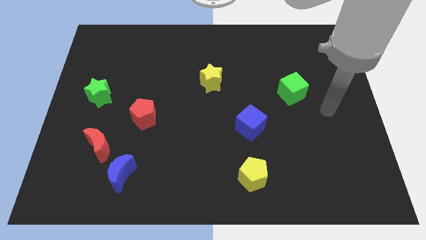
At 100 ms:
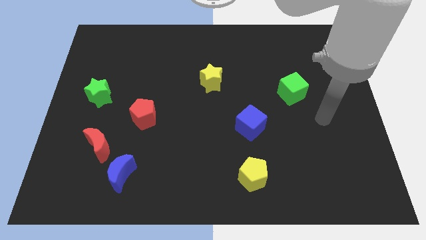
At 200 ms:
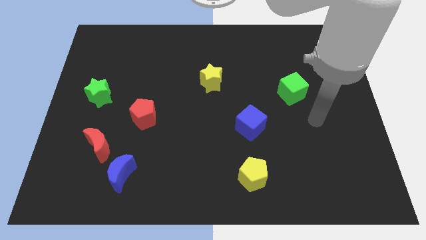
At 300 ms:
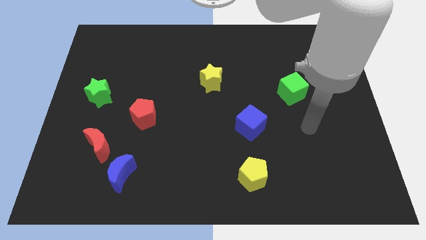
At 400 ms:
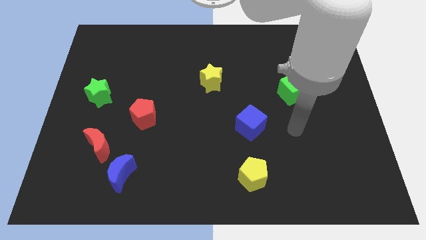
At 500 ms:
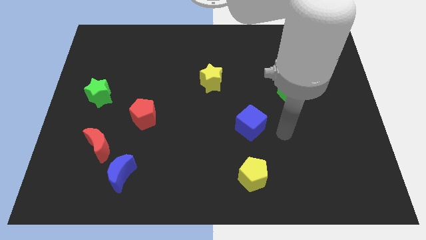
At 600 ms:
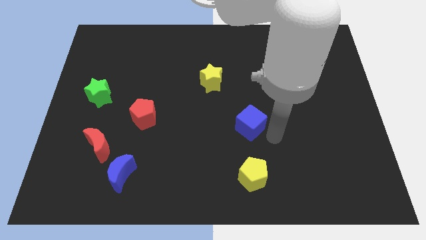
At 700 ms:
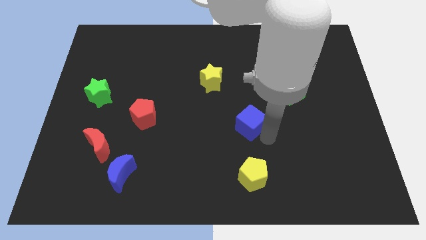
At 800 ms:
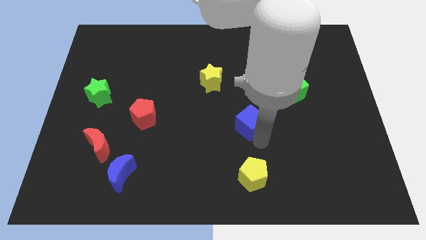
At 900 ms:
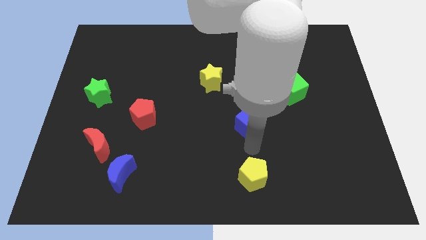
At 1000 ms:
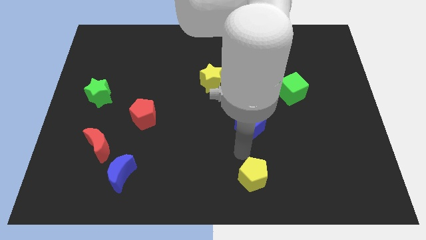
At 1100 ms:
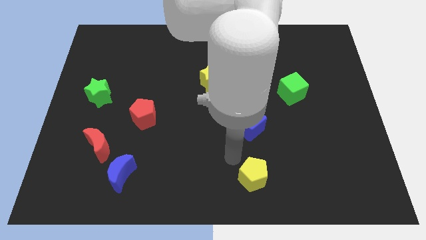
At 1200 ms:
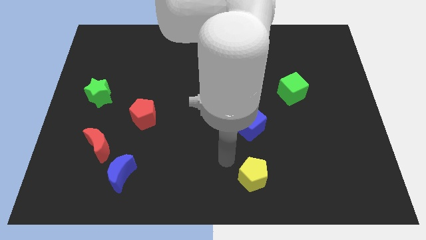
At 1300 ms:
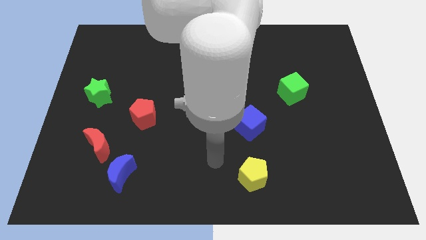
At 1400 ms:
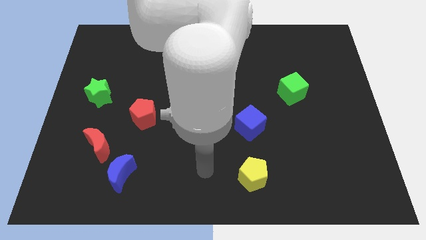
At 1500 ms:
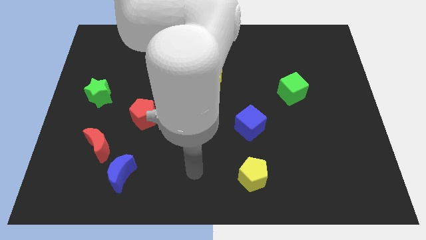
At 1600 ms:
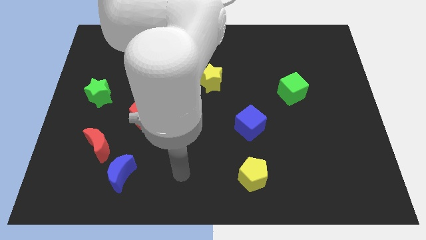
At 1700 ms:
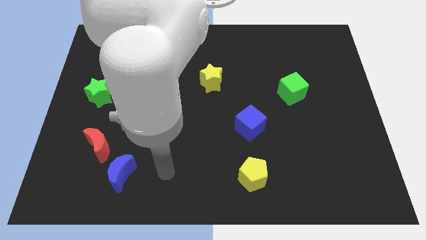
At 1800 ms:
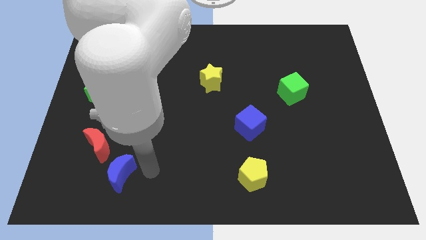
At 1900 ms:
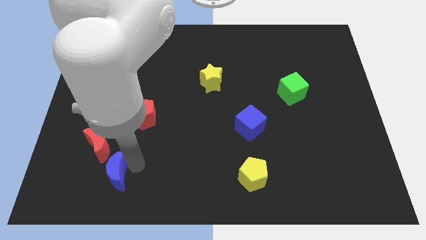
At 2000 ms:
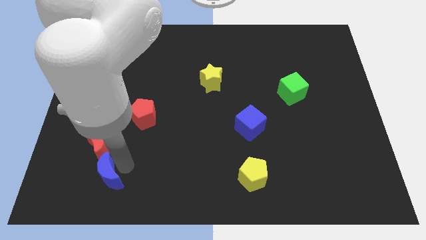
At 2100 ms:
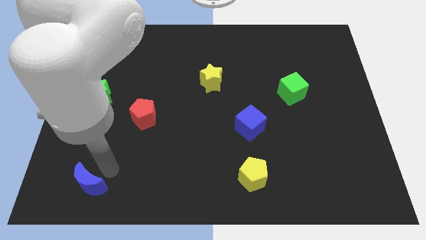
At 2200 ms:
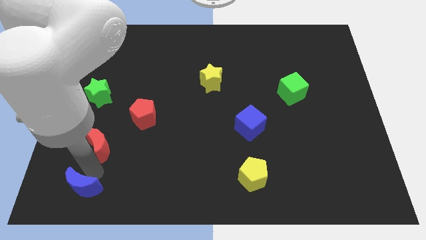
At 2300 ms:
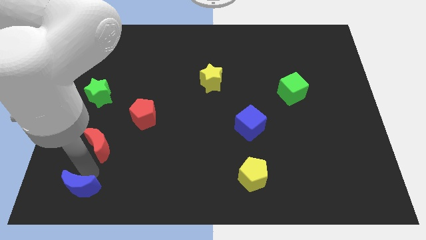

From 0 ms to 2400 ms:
pull the red moon apart from the blue moon

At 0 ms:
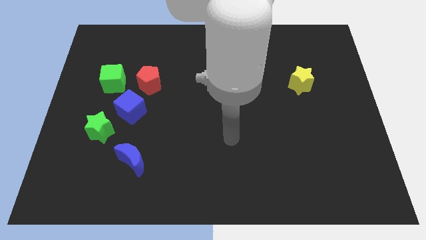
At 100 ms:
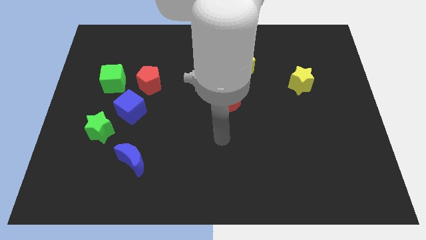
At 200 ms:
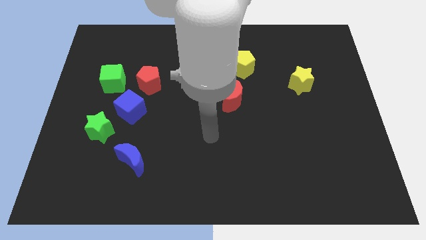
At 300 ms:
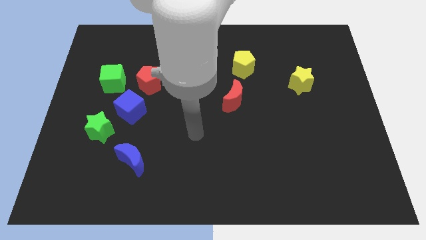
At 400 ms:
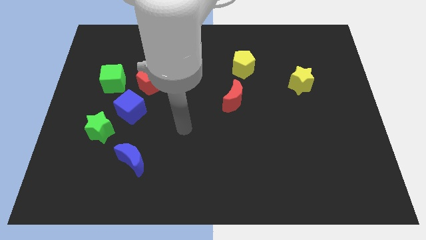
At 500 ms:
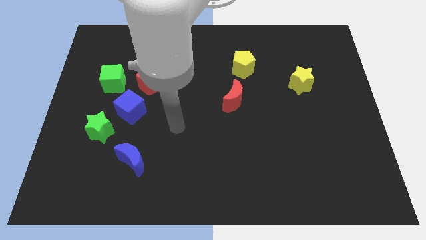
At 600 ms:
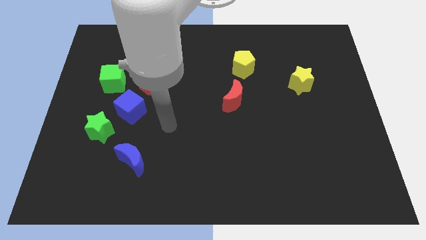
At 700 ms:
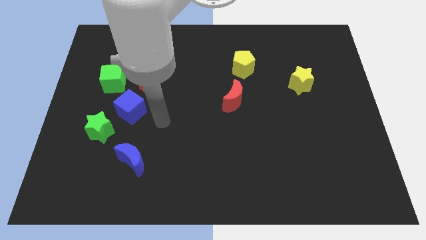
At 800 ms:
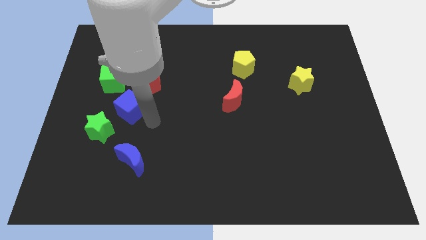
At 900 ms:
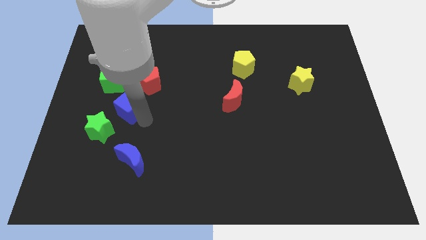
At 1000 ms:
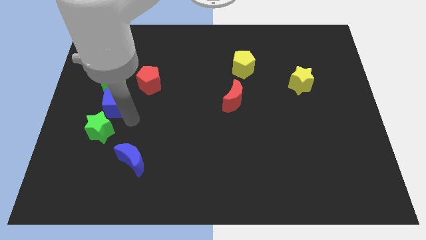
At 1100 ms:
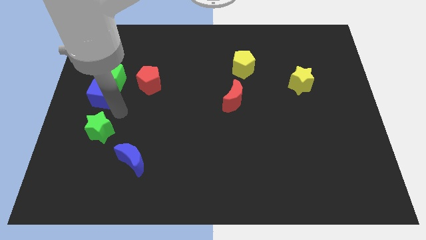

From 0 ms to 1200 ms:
pull the green star apart from the blue cube

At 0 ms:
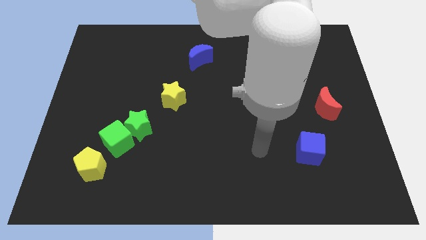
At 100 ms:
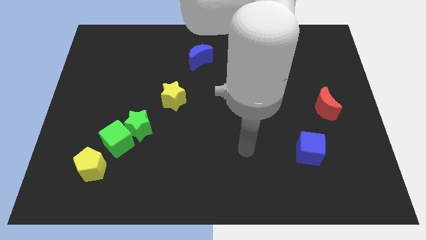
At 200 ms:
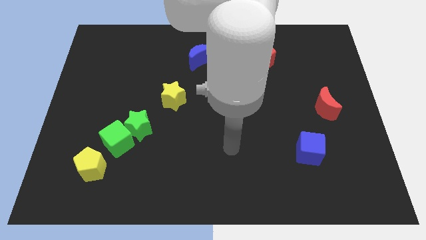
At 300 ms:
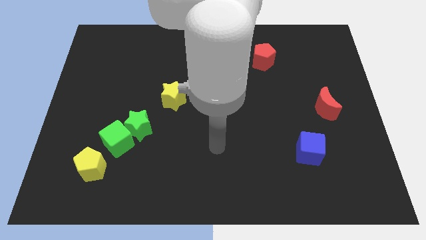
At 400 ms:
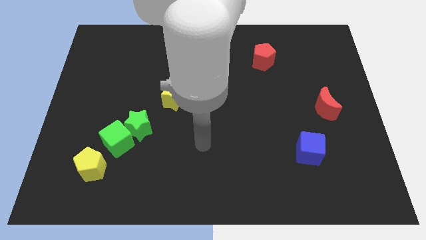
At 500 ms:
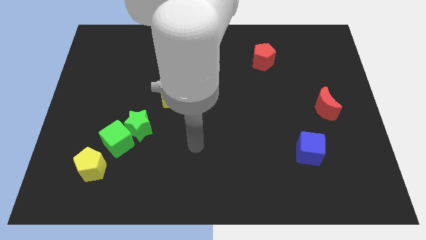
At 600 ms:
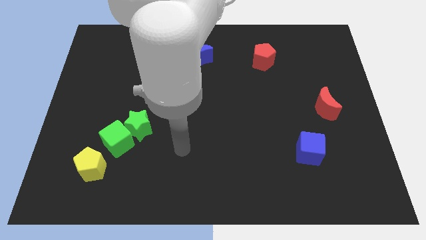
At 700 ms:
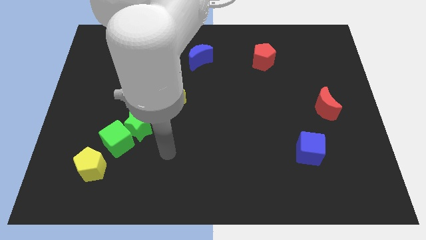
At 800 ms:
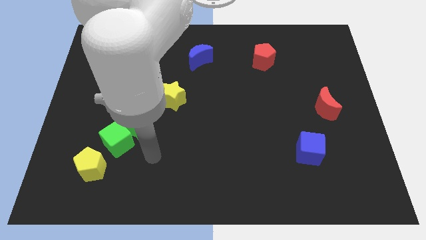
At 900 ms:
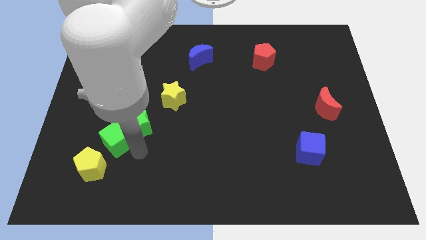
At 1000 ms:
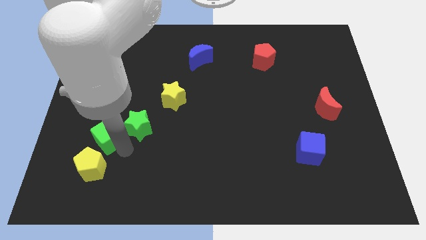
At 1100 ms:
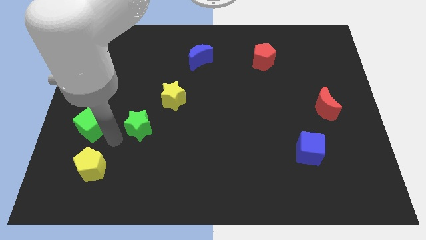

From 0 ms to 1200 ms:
separate the green star from the green cube

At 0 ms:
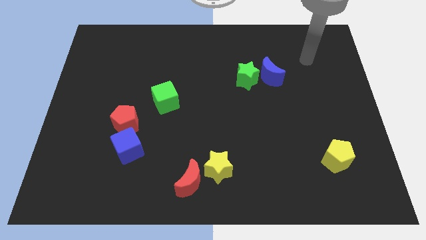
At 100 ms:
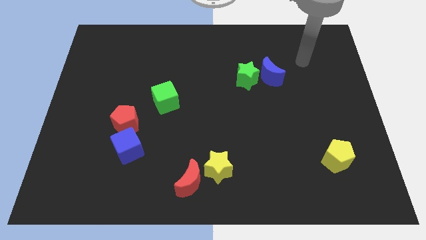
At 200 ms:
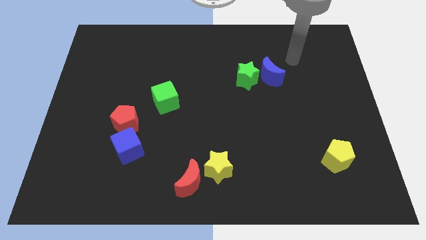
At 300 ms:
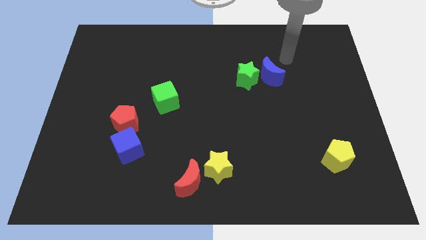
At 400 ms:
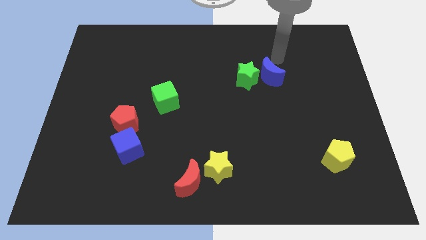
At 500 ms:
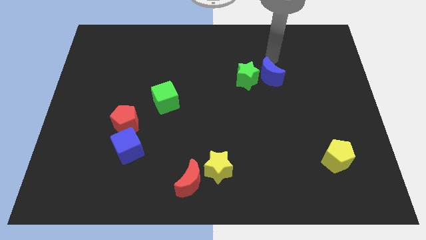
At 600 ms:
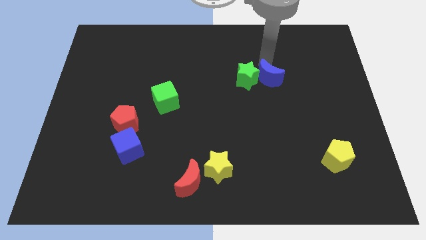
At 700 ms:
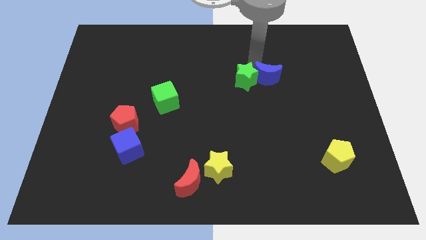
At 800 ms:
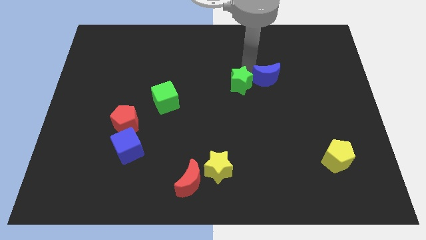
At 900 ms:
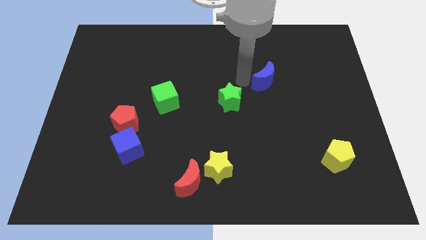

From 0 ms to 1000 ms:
pull the blue moon apart from the green star

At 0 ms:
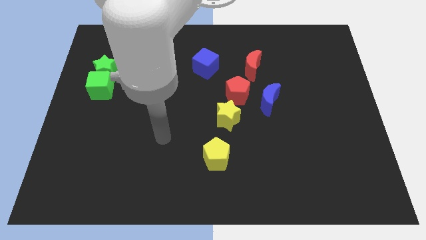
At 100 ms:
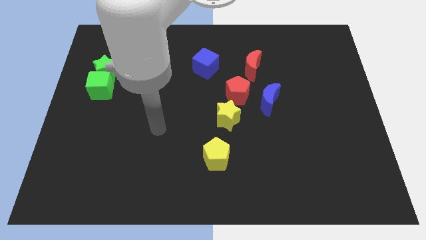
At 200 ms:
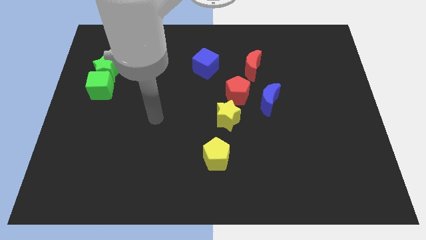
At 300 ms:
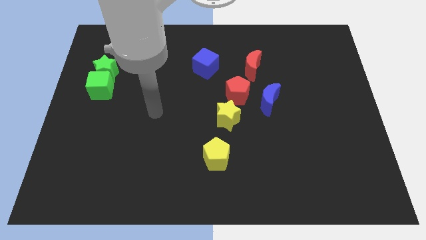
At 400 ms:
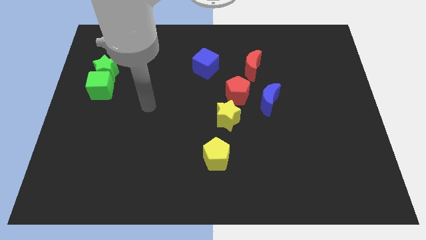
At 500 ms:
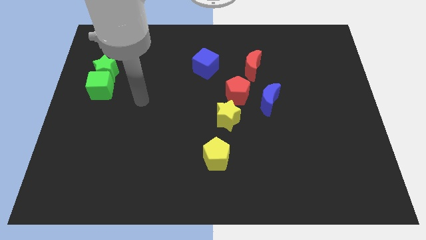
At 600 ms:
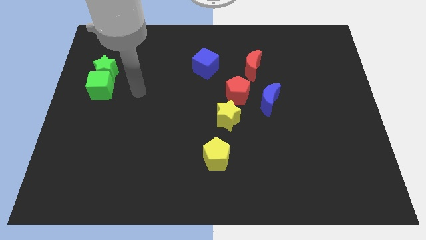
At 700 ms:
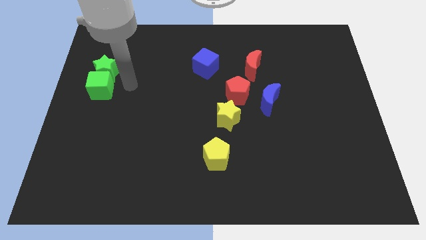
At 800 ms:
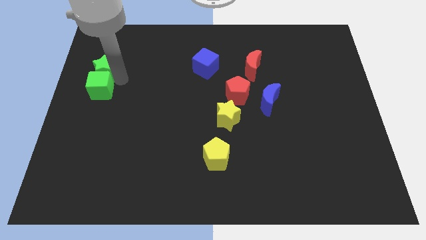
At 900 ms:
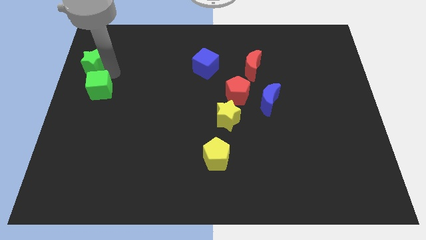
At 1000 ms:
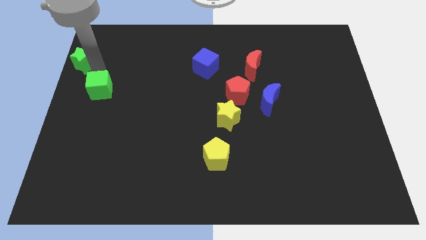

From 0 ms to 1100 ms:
pull the green cube apart from the green star

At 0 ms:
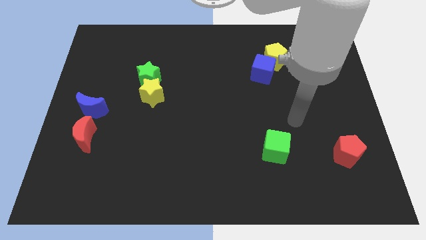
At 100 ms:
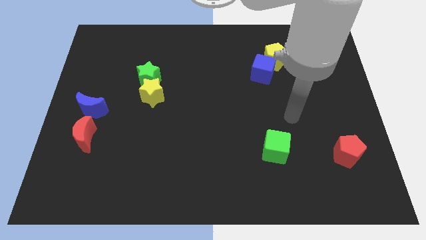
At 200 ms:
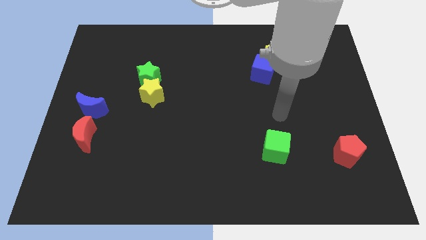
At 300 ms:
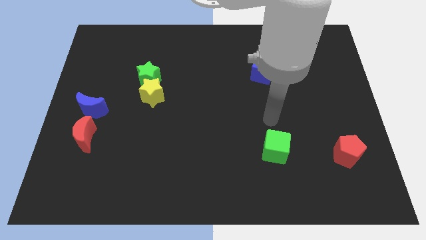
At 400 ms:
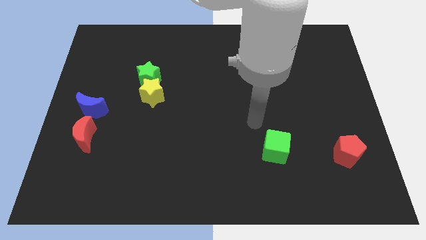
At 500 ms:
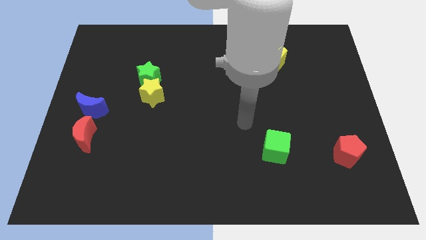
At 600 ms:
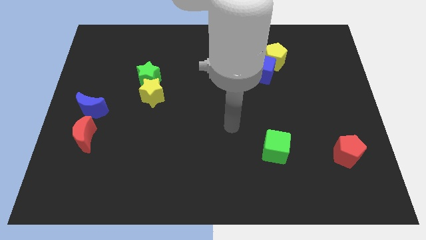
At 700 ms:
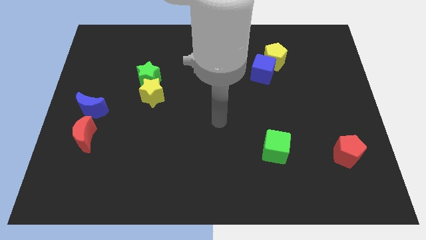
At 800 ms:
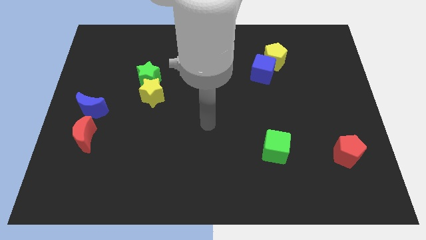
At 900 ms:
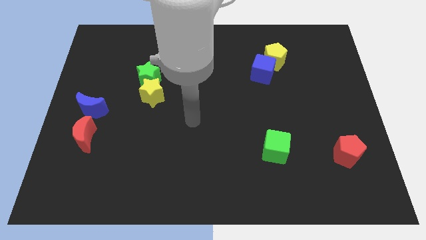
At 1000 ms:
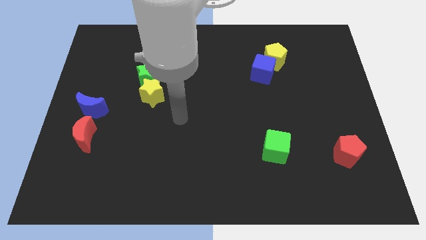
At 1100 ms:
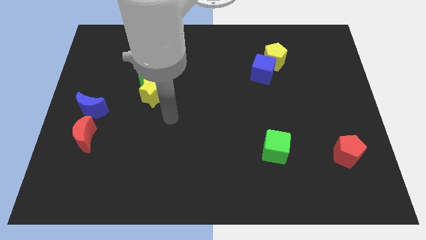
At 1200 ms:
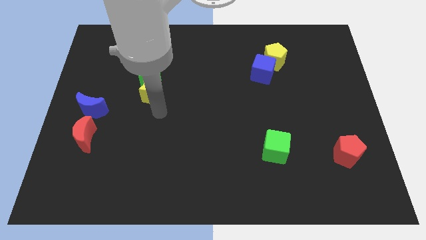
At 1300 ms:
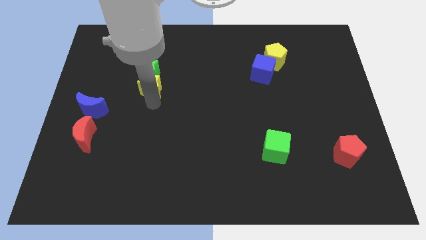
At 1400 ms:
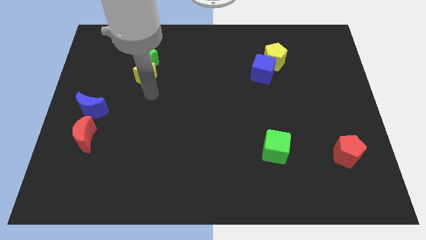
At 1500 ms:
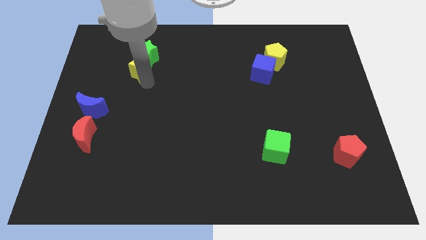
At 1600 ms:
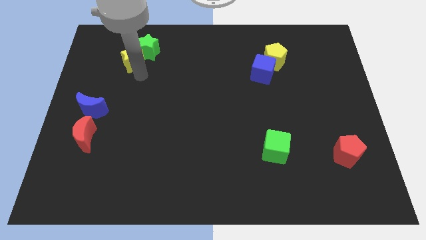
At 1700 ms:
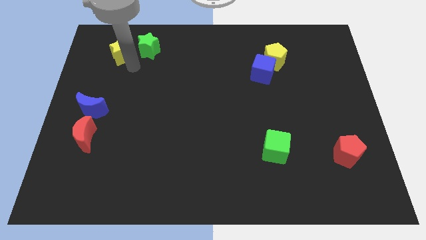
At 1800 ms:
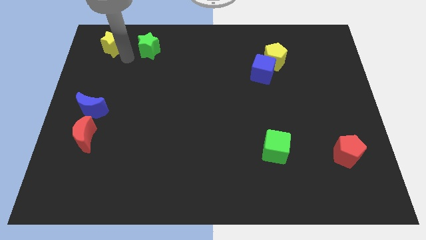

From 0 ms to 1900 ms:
move the green star away from the yellow star

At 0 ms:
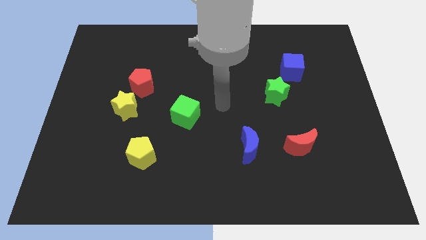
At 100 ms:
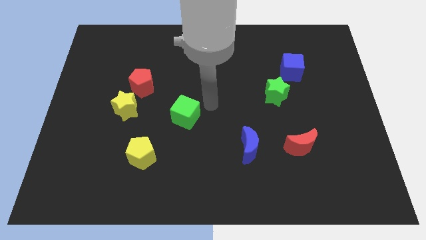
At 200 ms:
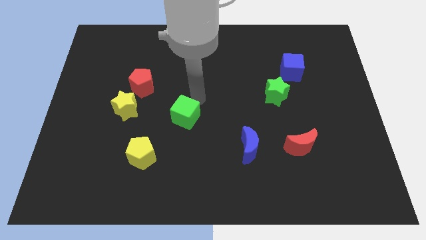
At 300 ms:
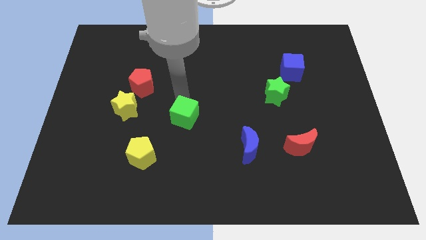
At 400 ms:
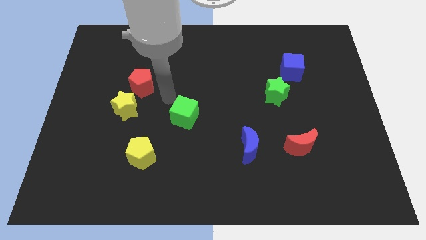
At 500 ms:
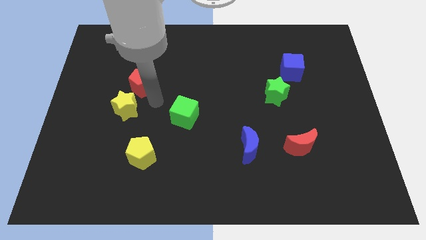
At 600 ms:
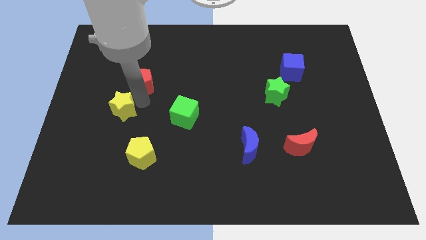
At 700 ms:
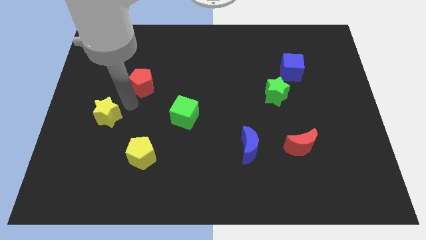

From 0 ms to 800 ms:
move the red pentagon away from the yellow star
